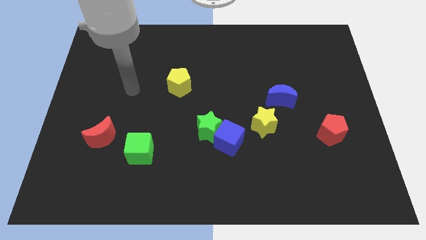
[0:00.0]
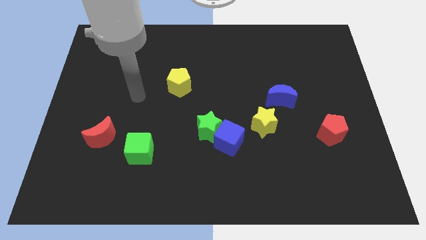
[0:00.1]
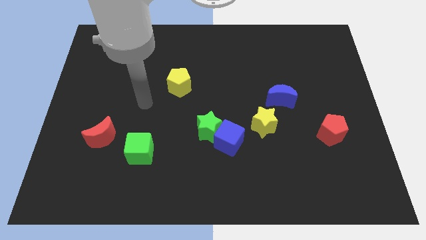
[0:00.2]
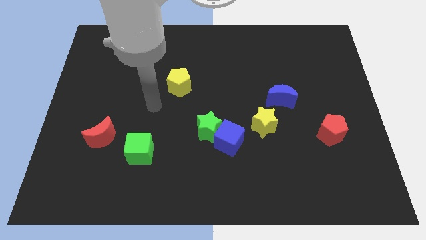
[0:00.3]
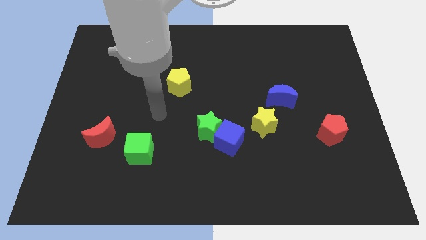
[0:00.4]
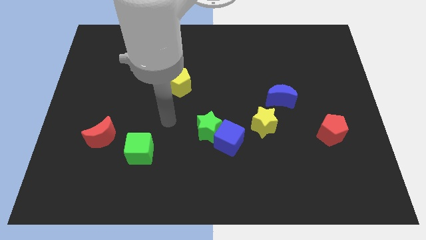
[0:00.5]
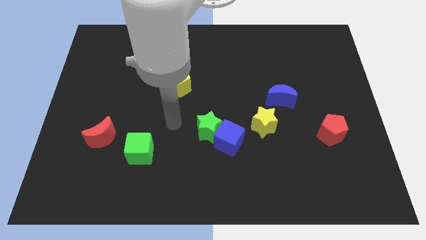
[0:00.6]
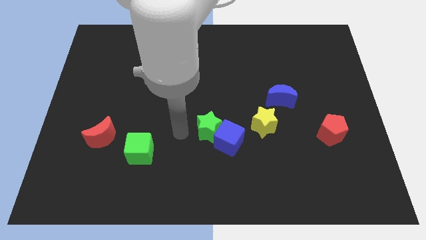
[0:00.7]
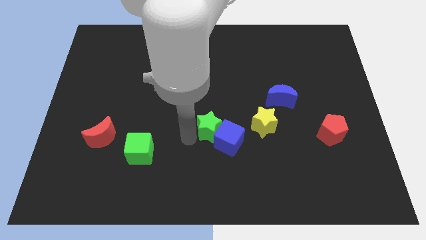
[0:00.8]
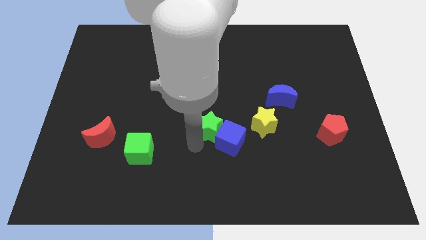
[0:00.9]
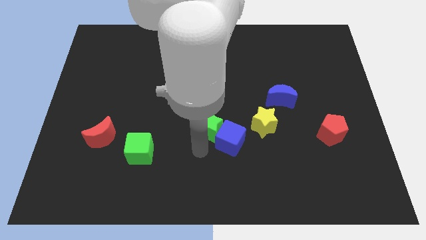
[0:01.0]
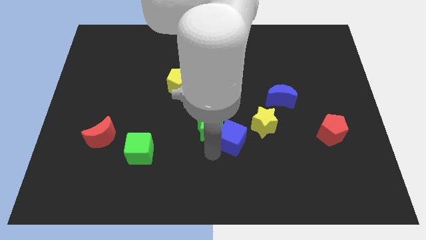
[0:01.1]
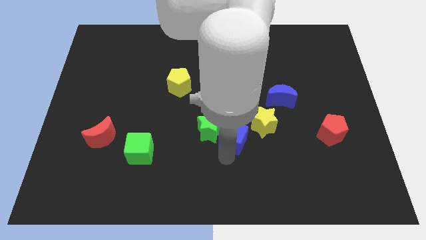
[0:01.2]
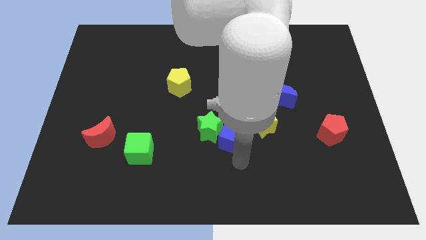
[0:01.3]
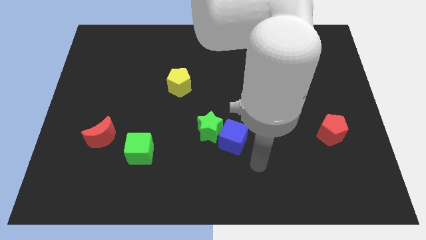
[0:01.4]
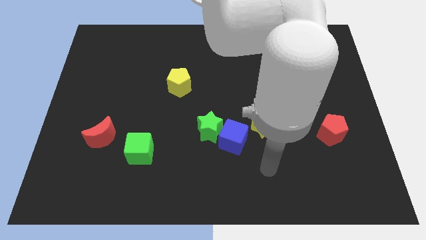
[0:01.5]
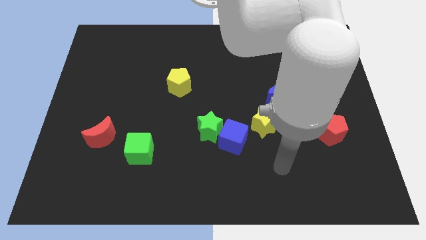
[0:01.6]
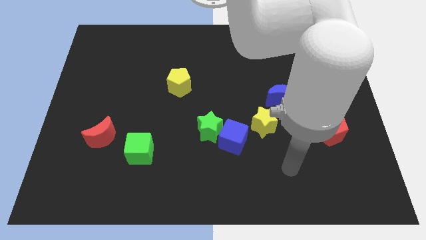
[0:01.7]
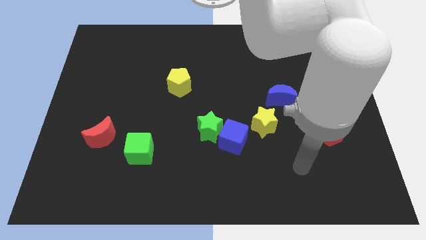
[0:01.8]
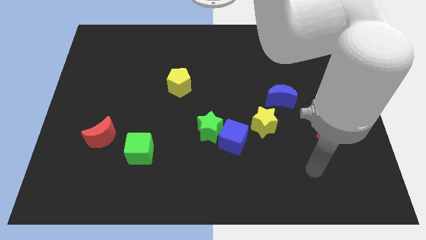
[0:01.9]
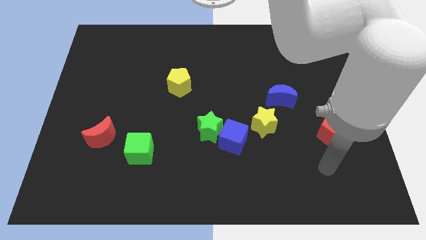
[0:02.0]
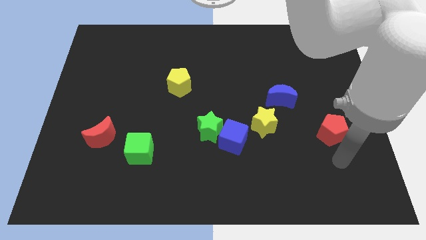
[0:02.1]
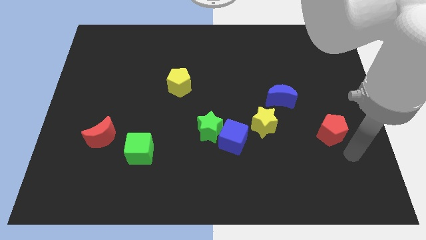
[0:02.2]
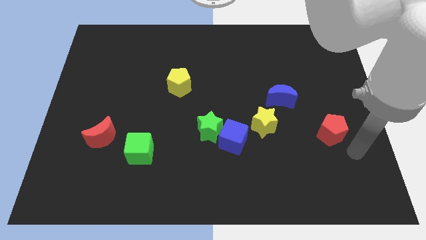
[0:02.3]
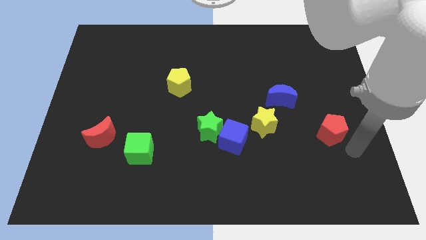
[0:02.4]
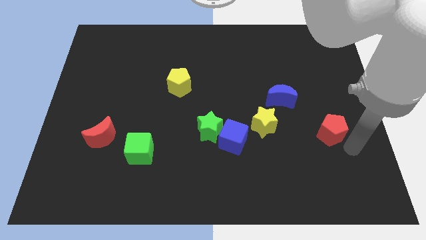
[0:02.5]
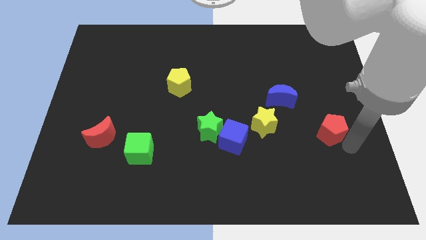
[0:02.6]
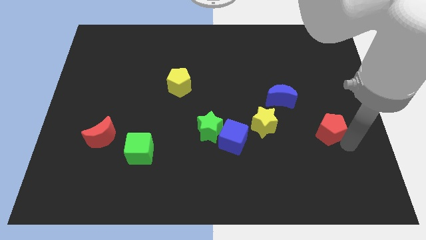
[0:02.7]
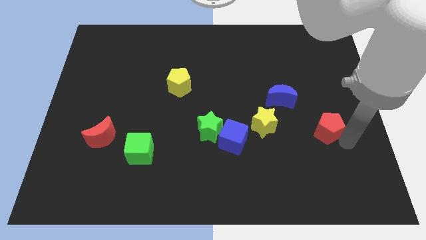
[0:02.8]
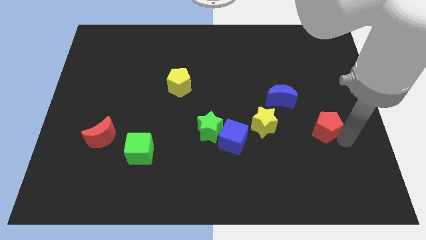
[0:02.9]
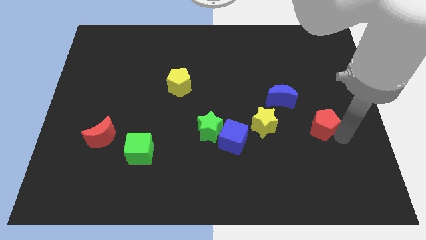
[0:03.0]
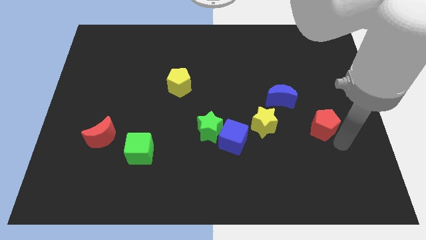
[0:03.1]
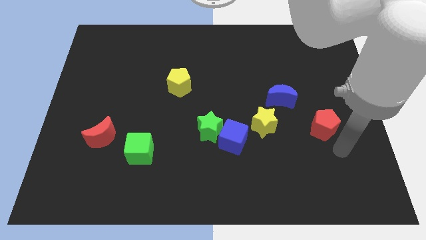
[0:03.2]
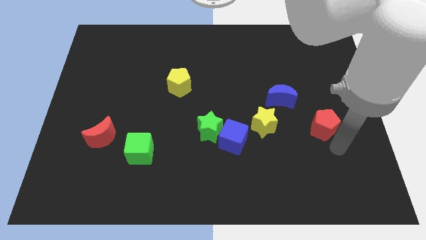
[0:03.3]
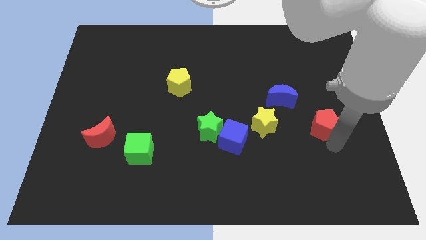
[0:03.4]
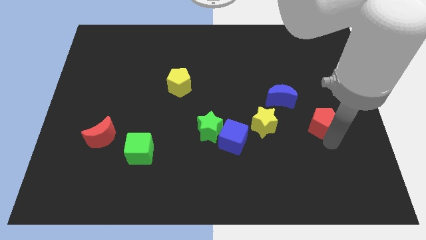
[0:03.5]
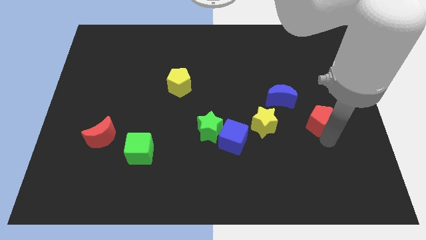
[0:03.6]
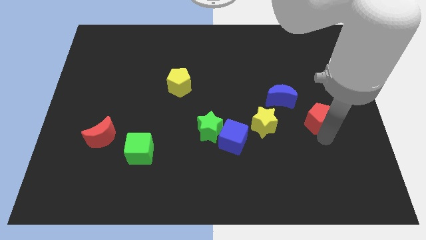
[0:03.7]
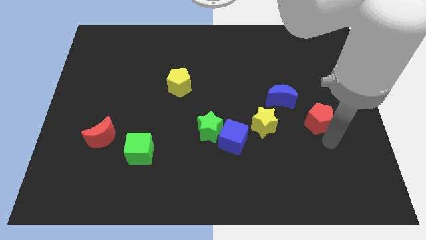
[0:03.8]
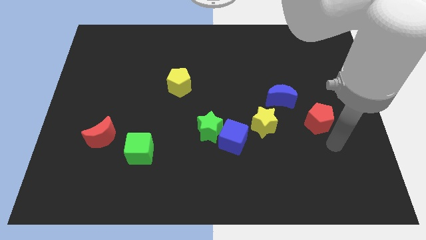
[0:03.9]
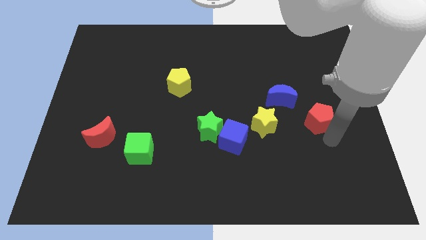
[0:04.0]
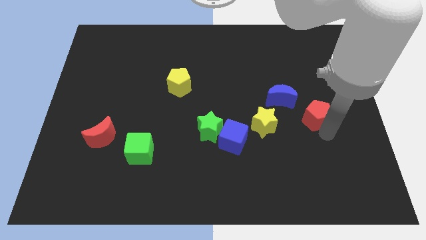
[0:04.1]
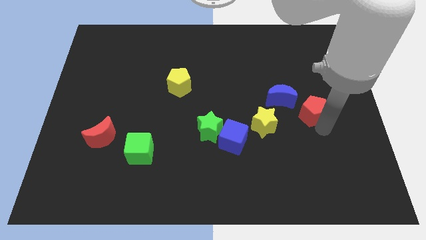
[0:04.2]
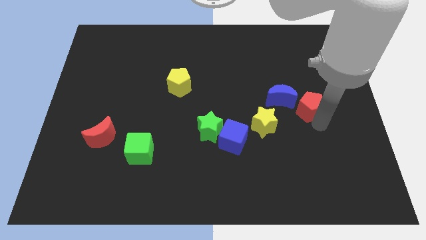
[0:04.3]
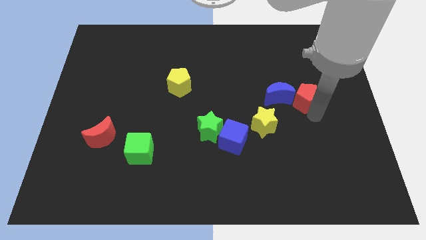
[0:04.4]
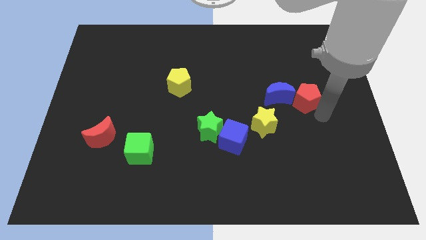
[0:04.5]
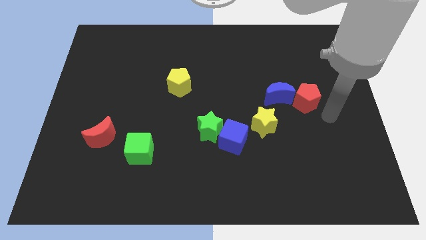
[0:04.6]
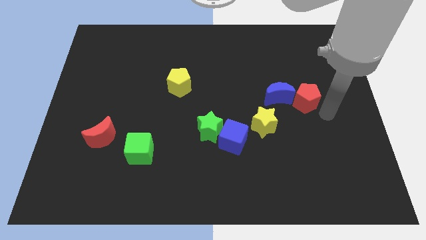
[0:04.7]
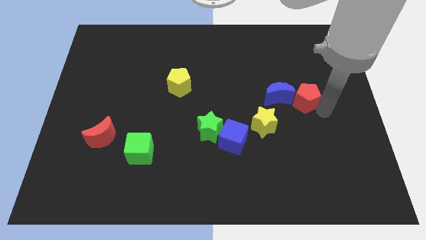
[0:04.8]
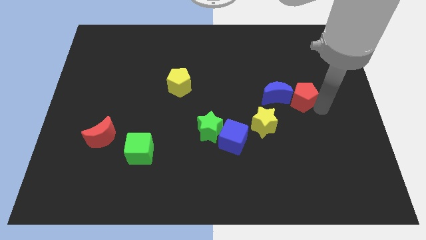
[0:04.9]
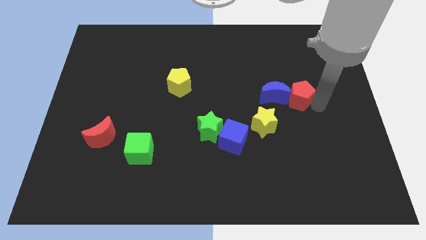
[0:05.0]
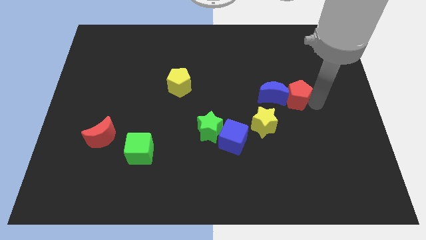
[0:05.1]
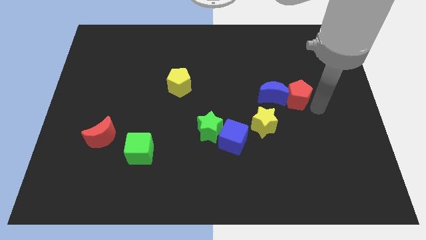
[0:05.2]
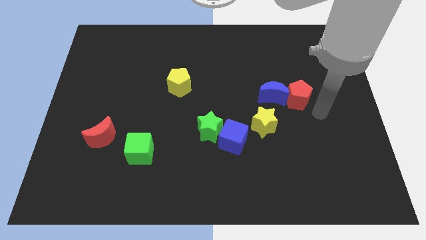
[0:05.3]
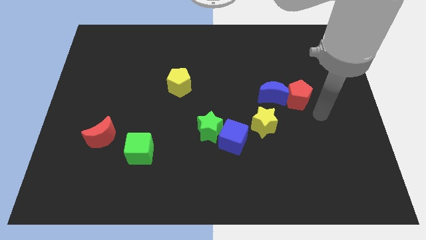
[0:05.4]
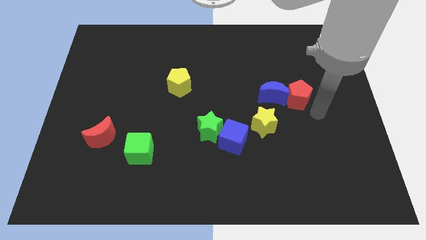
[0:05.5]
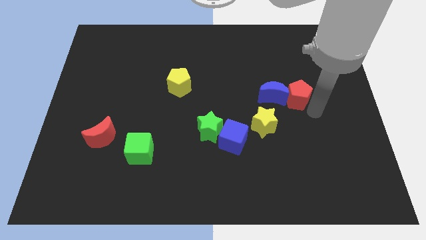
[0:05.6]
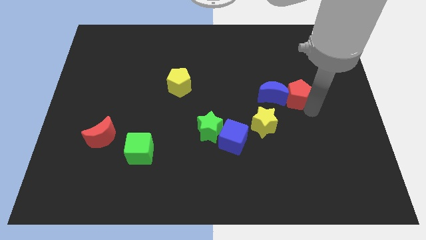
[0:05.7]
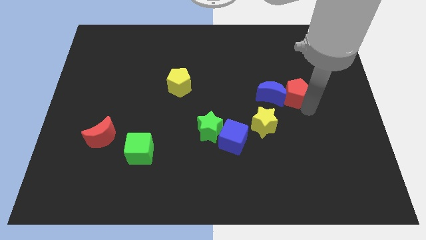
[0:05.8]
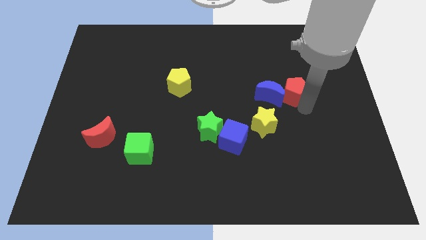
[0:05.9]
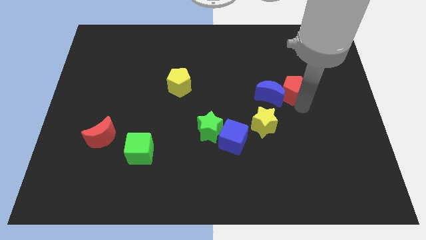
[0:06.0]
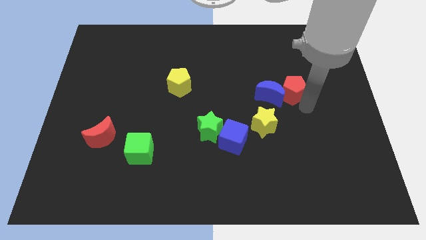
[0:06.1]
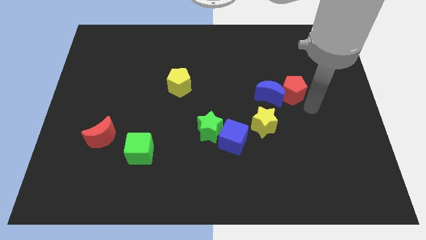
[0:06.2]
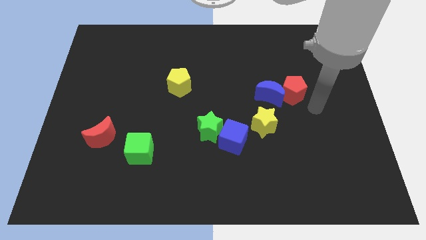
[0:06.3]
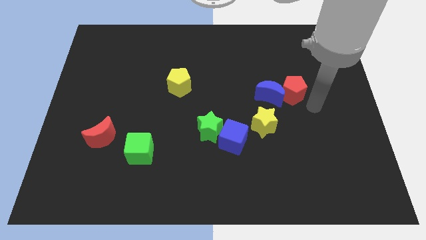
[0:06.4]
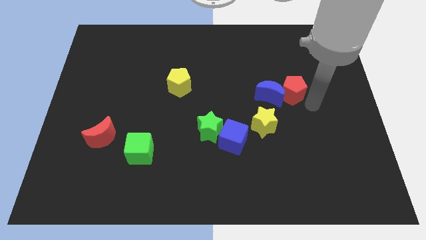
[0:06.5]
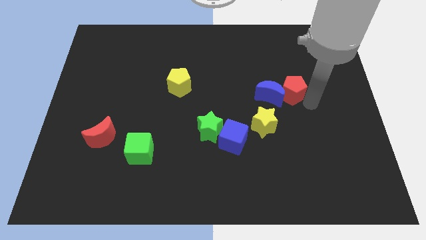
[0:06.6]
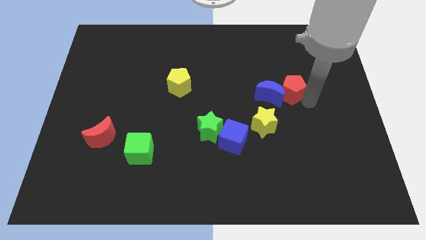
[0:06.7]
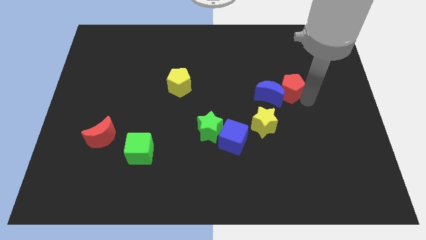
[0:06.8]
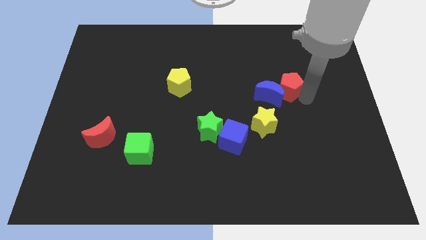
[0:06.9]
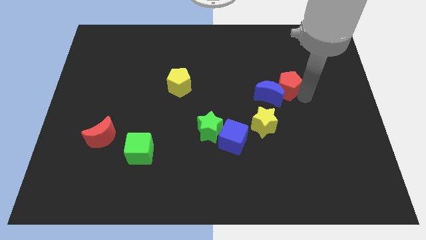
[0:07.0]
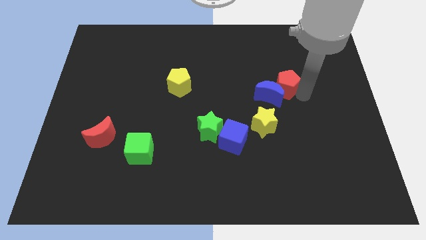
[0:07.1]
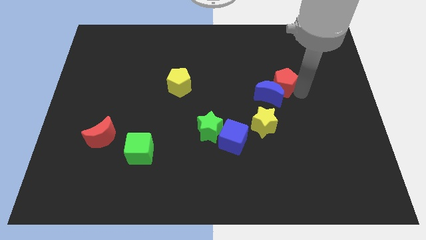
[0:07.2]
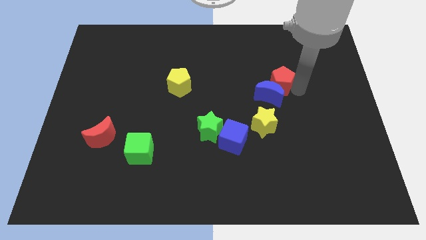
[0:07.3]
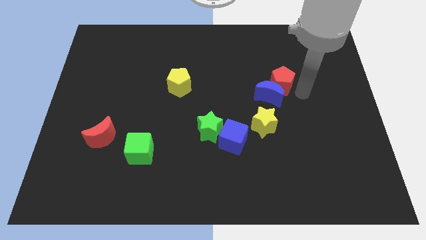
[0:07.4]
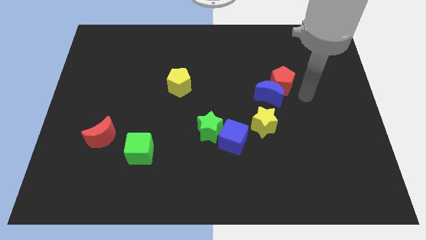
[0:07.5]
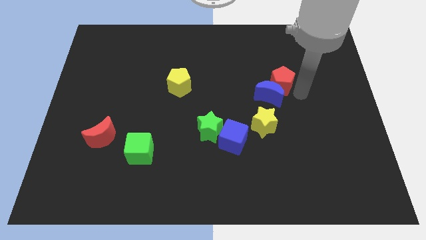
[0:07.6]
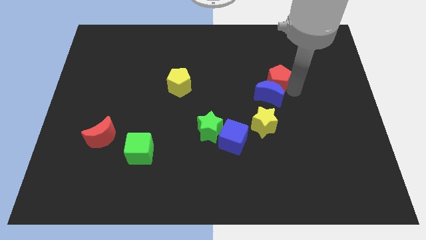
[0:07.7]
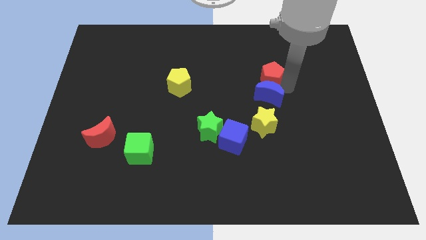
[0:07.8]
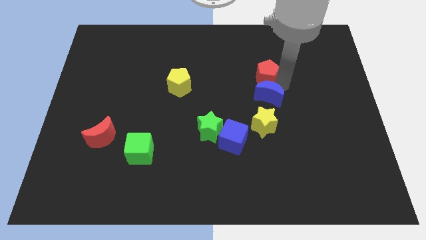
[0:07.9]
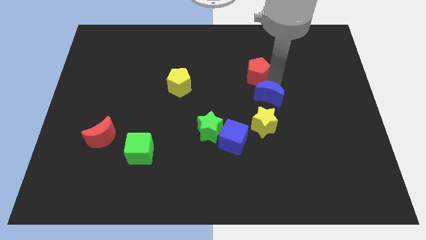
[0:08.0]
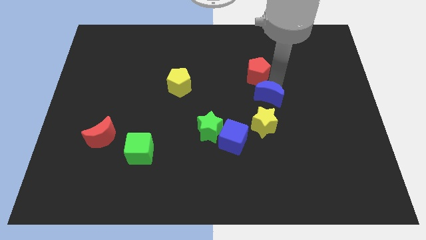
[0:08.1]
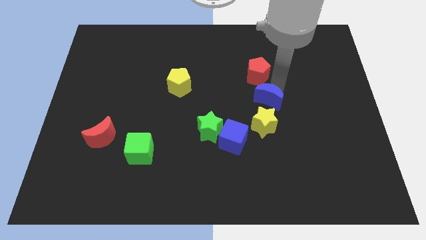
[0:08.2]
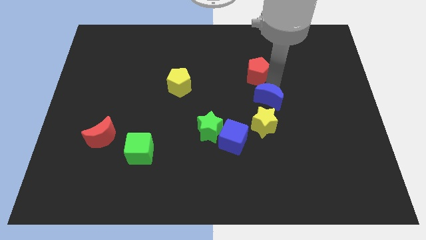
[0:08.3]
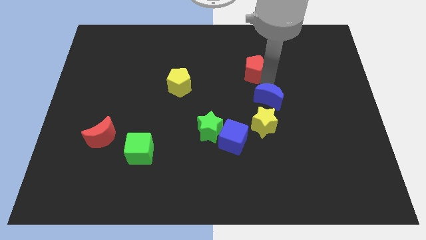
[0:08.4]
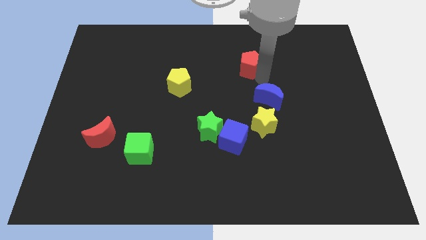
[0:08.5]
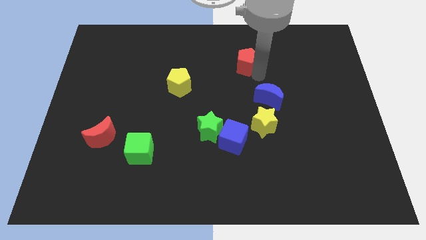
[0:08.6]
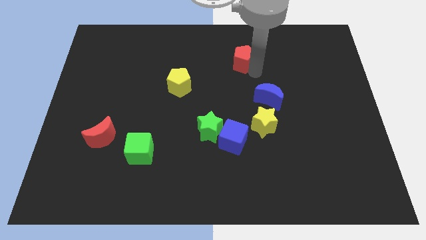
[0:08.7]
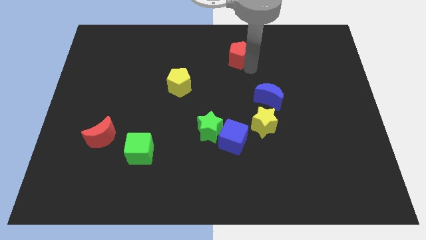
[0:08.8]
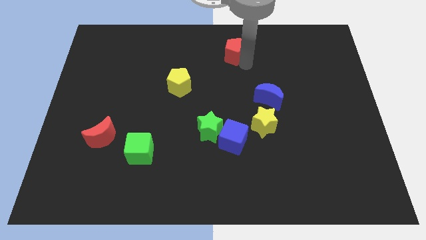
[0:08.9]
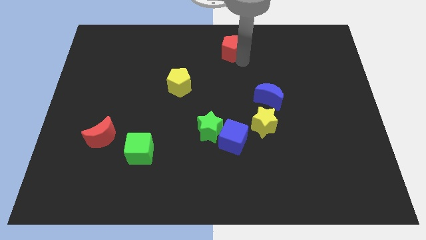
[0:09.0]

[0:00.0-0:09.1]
slide the red pentagon to the top side
